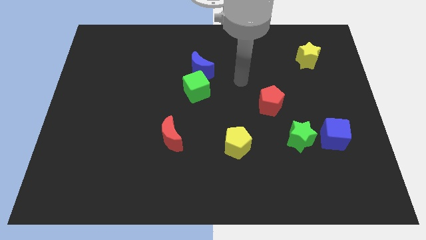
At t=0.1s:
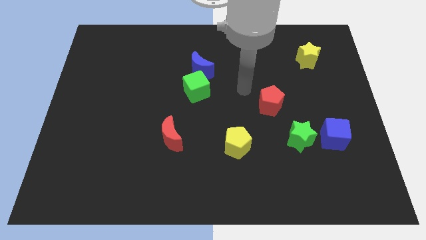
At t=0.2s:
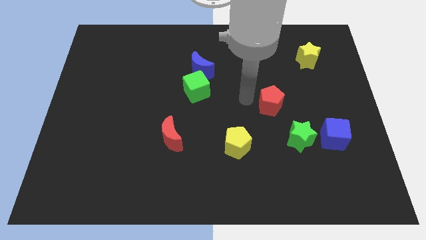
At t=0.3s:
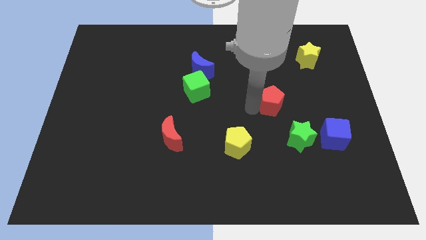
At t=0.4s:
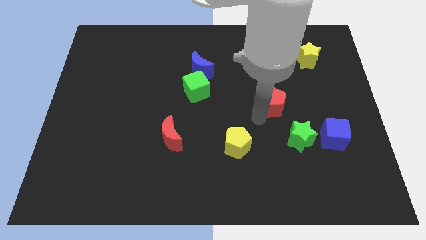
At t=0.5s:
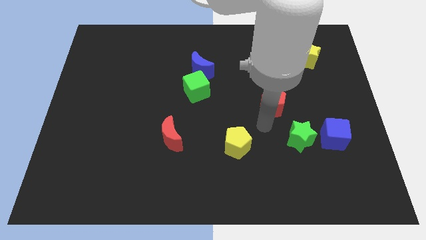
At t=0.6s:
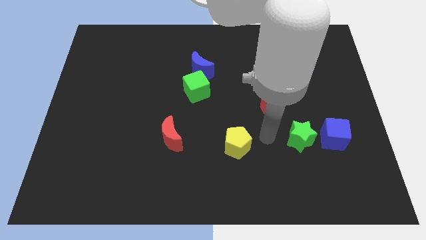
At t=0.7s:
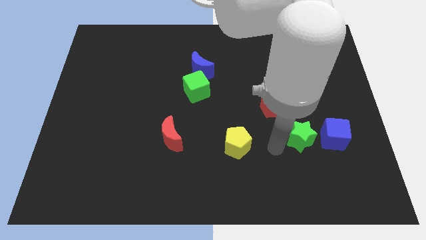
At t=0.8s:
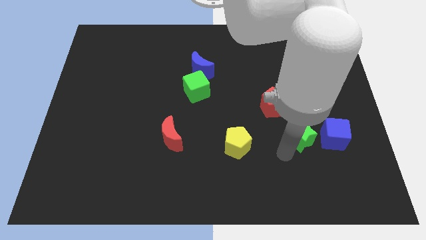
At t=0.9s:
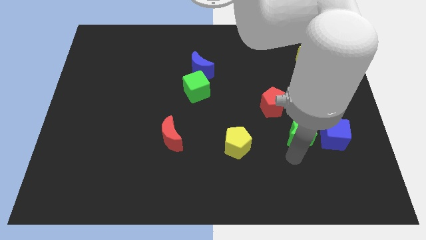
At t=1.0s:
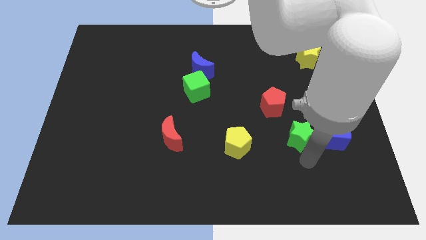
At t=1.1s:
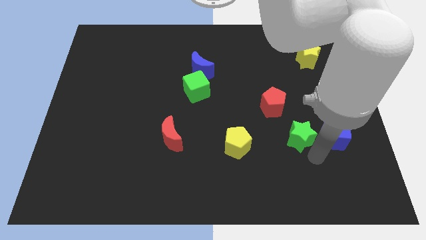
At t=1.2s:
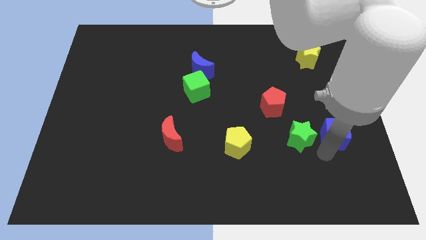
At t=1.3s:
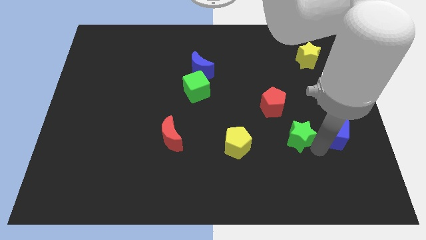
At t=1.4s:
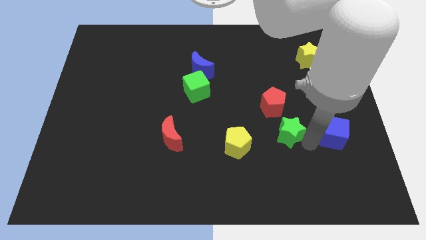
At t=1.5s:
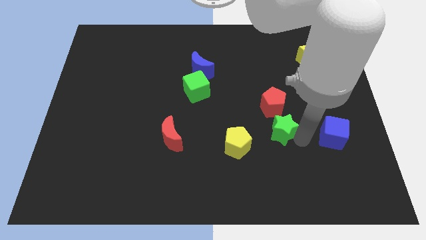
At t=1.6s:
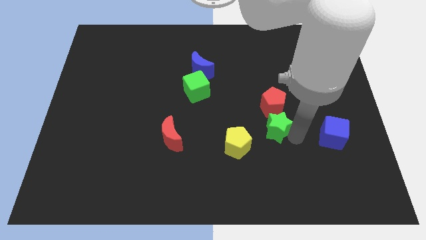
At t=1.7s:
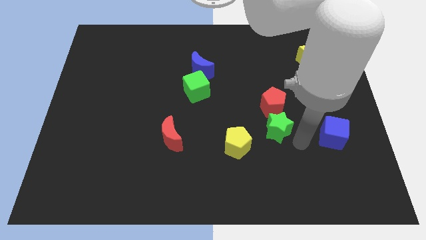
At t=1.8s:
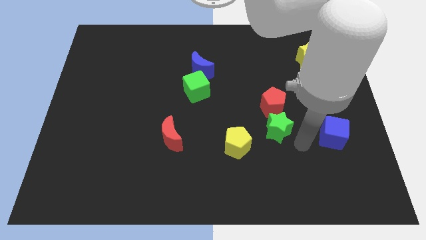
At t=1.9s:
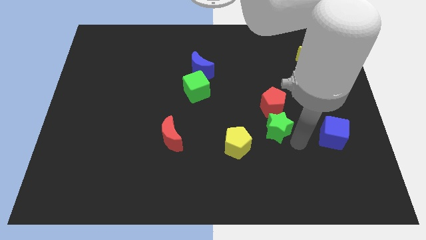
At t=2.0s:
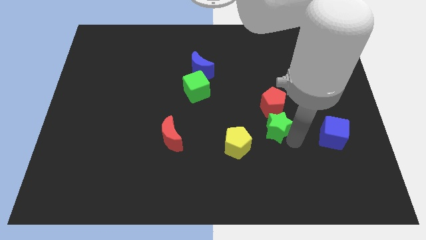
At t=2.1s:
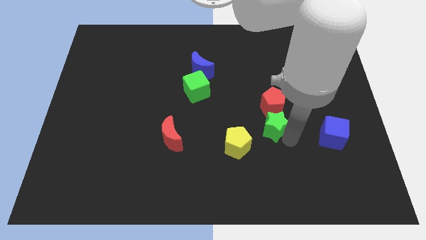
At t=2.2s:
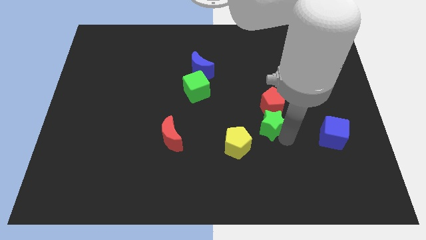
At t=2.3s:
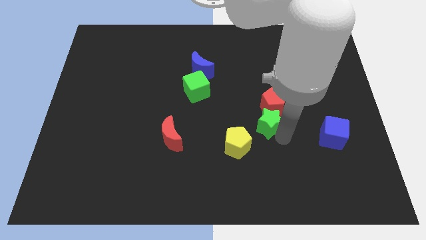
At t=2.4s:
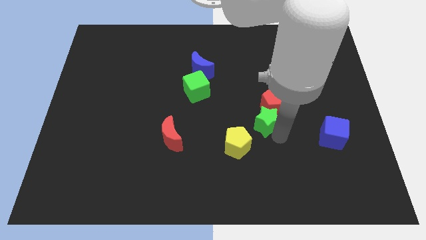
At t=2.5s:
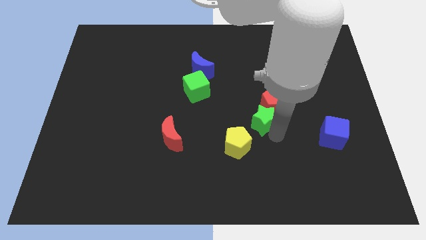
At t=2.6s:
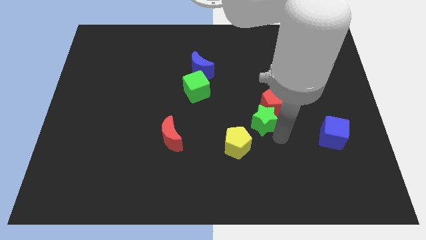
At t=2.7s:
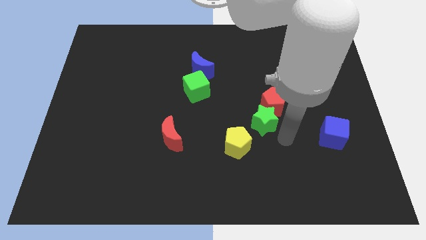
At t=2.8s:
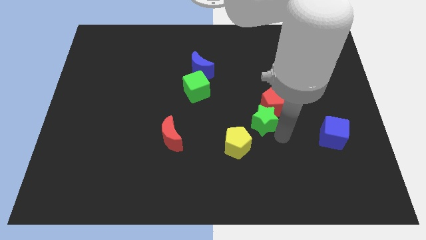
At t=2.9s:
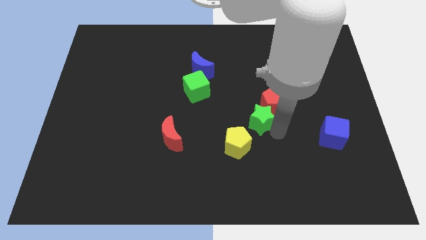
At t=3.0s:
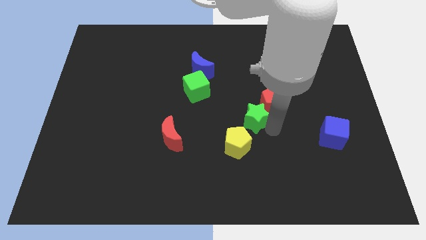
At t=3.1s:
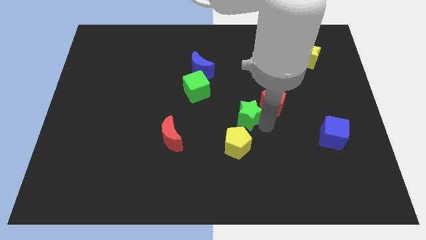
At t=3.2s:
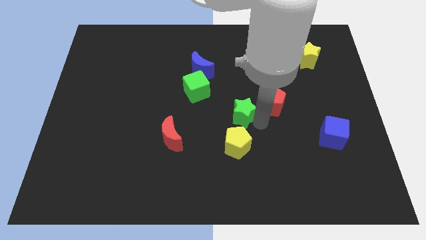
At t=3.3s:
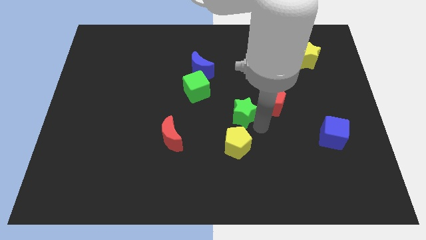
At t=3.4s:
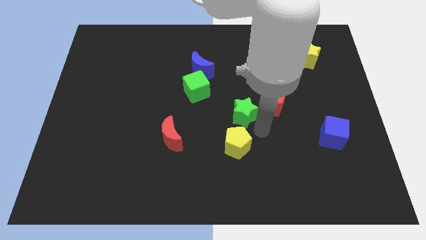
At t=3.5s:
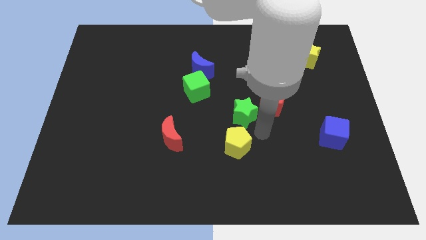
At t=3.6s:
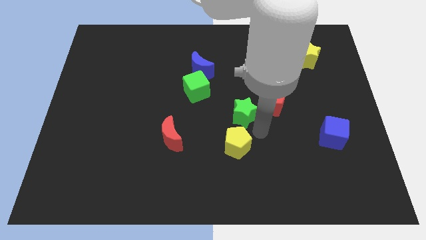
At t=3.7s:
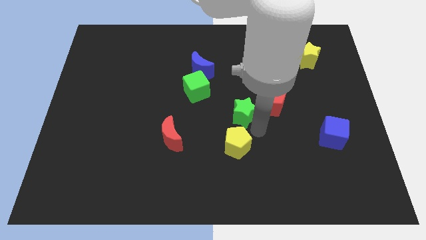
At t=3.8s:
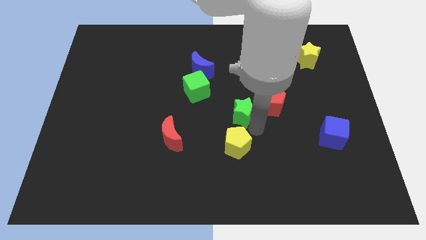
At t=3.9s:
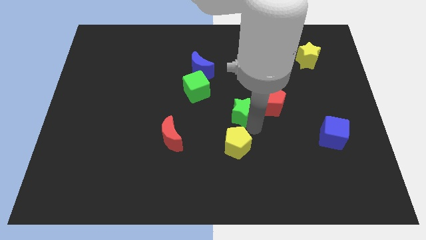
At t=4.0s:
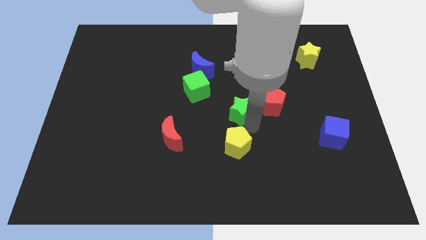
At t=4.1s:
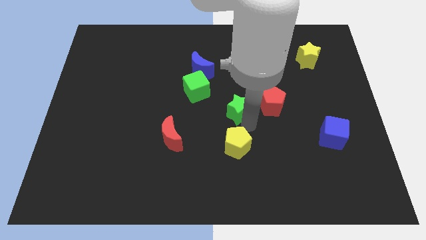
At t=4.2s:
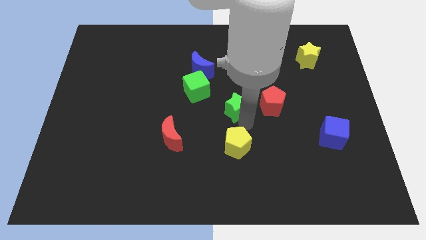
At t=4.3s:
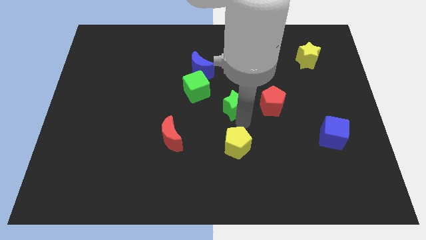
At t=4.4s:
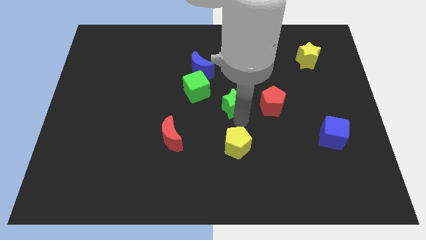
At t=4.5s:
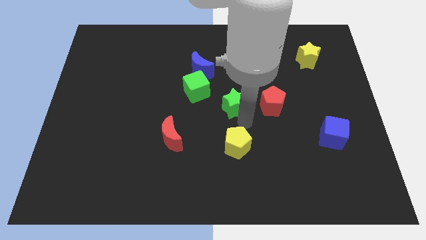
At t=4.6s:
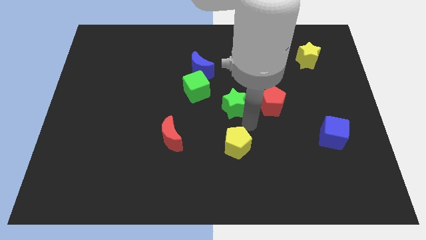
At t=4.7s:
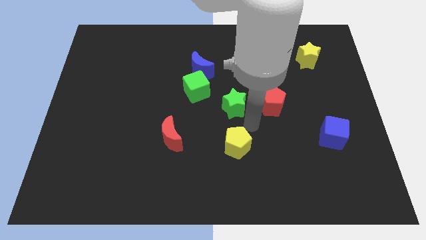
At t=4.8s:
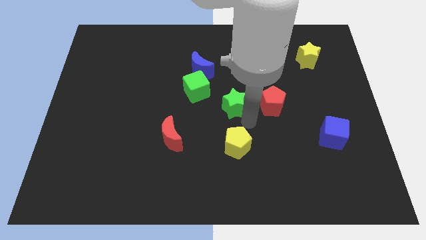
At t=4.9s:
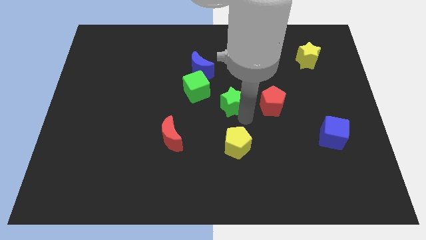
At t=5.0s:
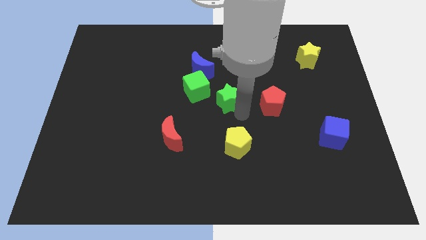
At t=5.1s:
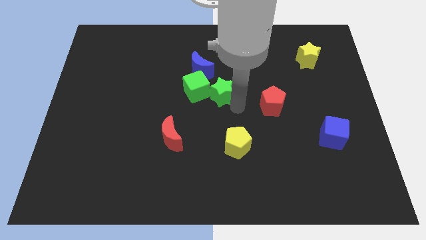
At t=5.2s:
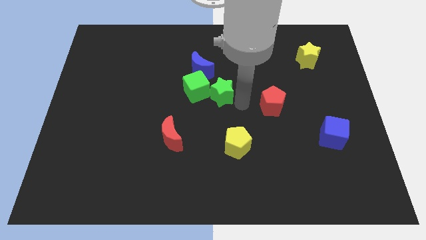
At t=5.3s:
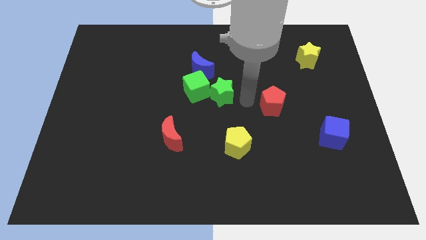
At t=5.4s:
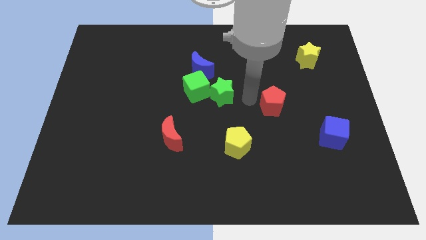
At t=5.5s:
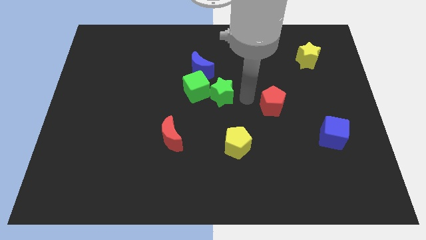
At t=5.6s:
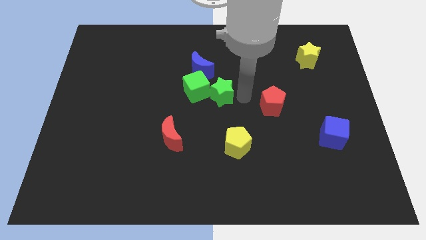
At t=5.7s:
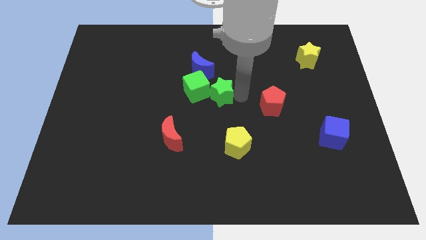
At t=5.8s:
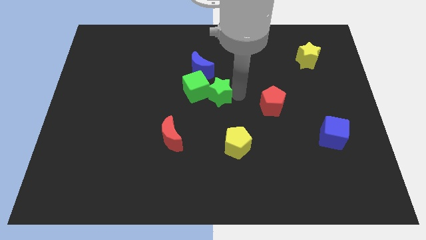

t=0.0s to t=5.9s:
push the green star towards the green cube

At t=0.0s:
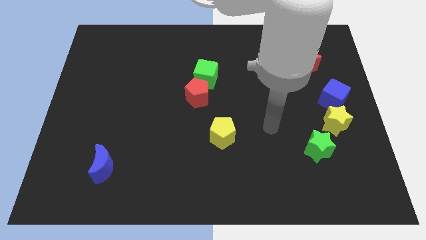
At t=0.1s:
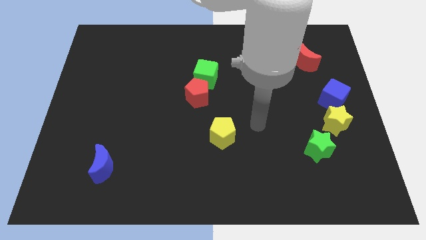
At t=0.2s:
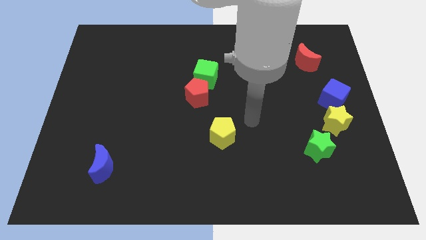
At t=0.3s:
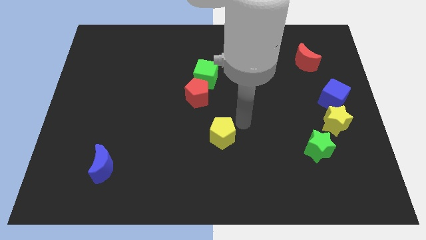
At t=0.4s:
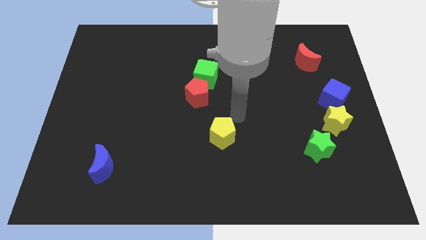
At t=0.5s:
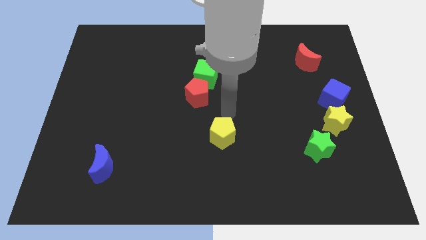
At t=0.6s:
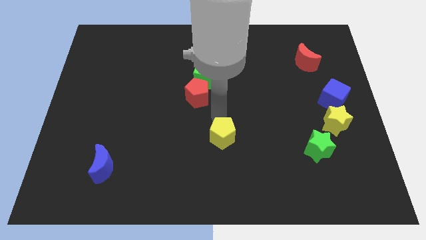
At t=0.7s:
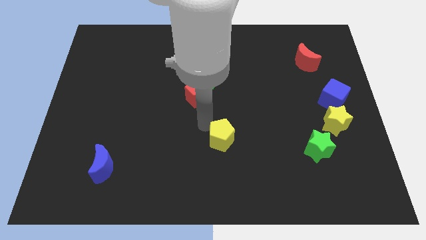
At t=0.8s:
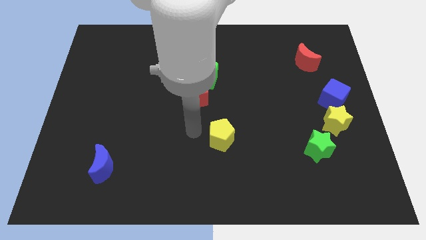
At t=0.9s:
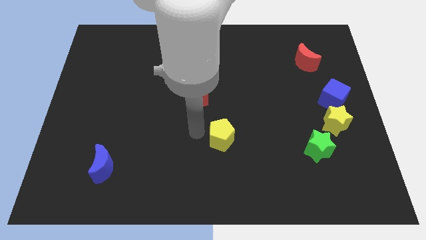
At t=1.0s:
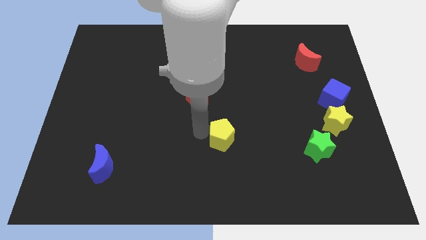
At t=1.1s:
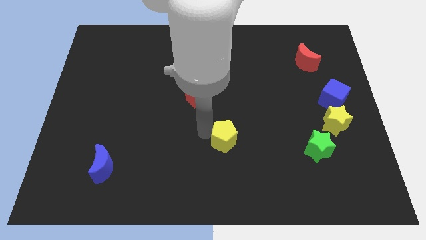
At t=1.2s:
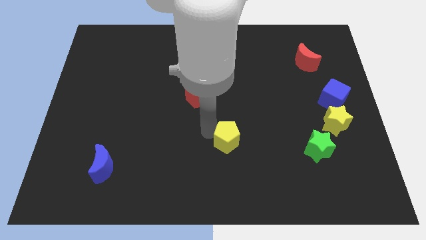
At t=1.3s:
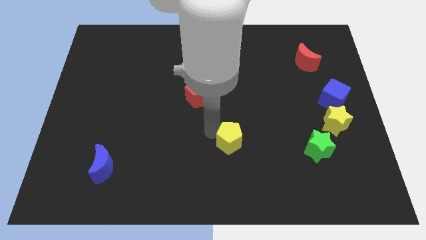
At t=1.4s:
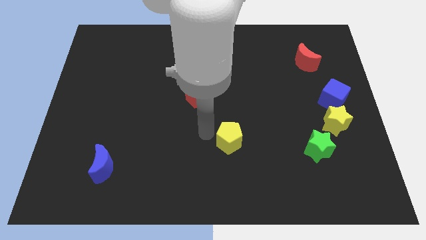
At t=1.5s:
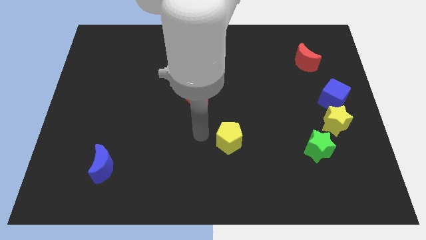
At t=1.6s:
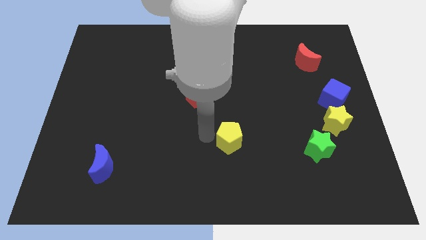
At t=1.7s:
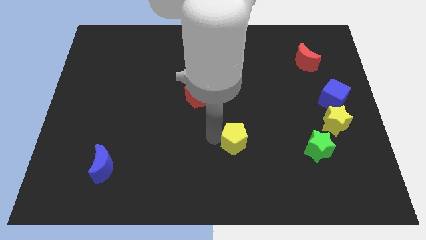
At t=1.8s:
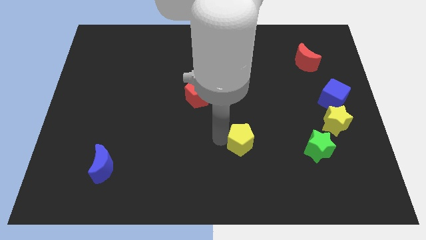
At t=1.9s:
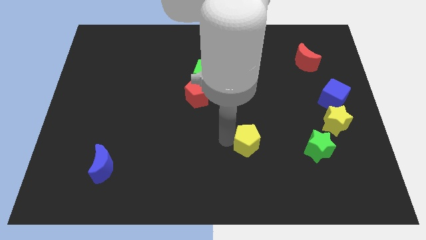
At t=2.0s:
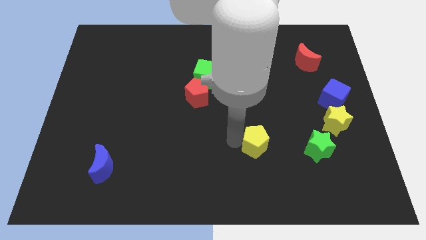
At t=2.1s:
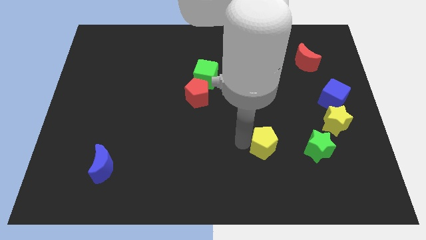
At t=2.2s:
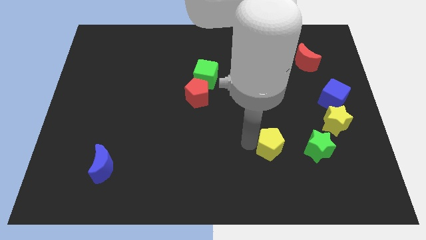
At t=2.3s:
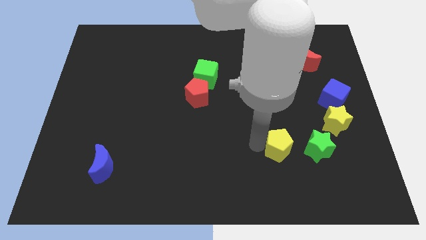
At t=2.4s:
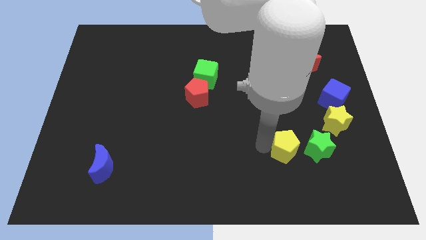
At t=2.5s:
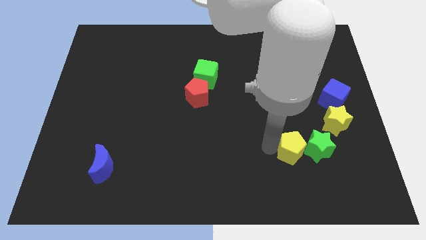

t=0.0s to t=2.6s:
slide the yellow pentagon close to the green star
